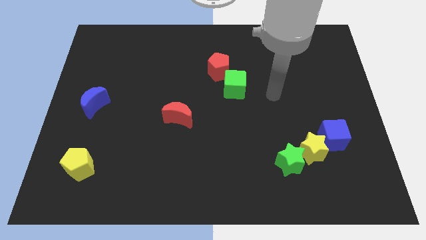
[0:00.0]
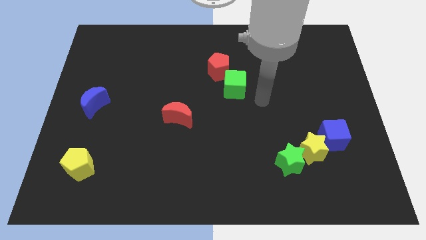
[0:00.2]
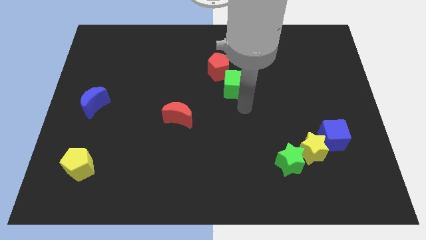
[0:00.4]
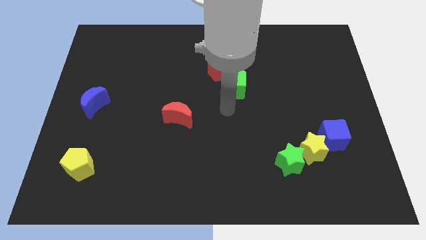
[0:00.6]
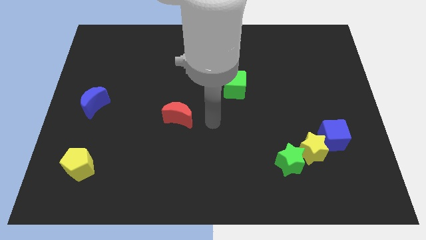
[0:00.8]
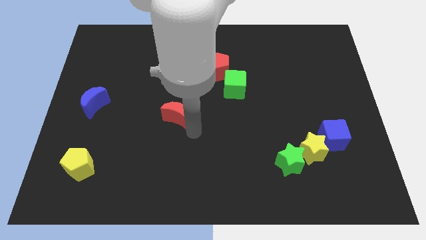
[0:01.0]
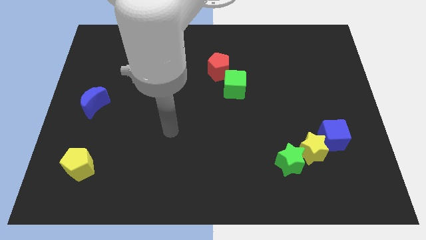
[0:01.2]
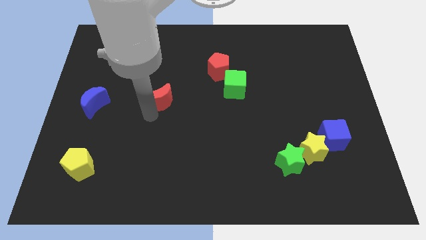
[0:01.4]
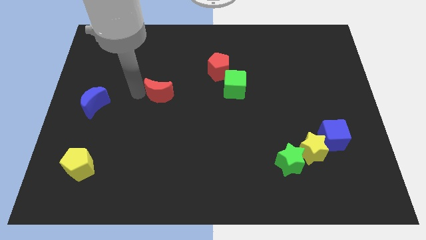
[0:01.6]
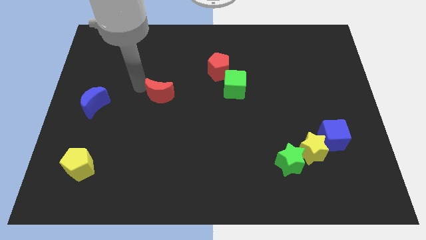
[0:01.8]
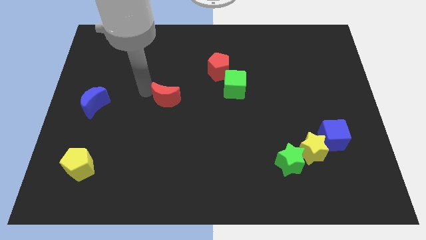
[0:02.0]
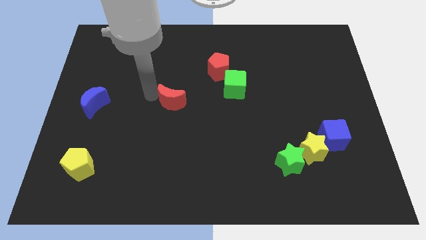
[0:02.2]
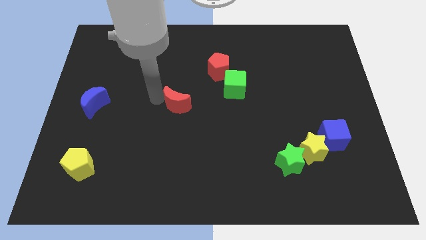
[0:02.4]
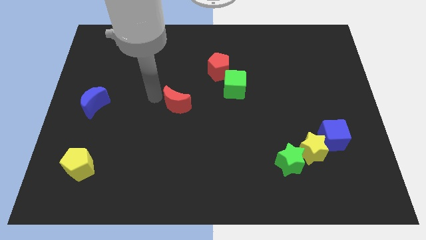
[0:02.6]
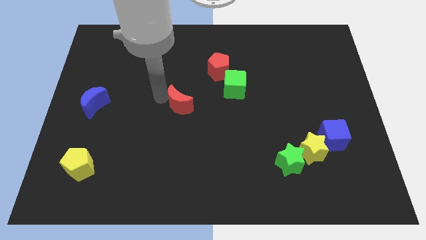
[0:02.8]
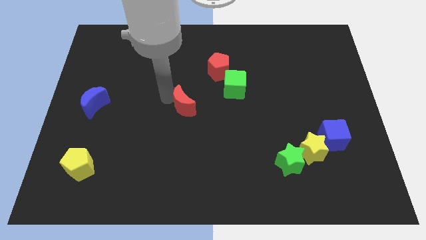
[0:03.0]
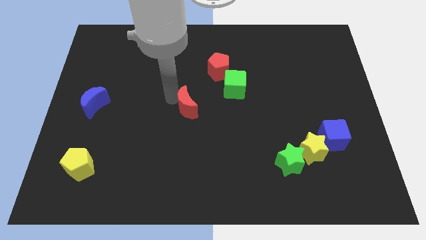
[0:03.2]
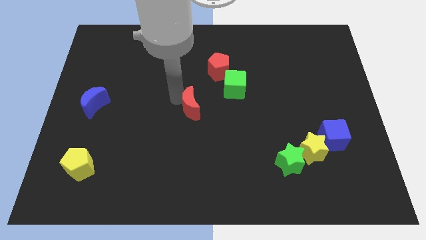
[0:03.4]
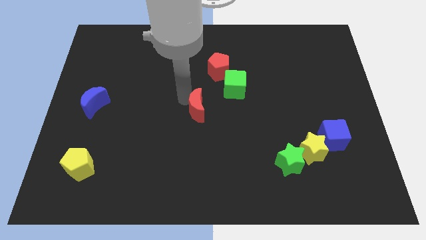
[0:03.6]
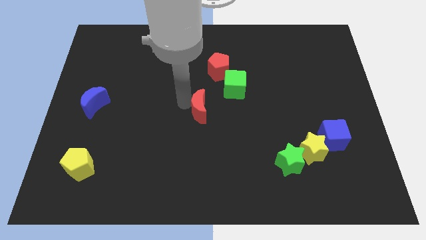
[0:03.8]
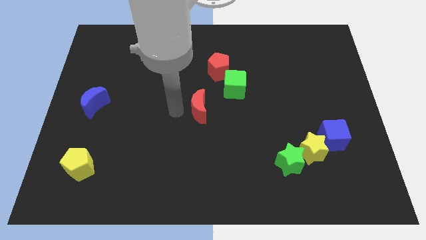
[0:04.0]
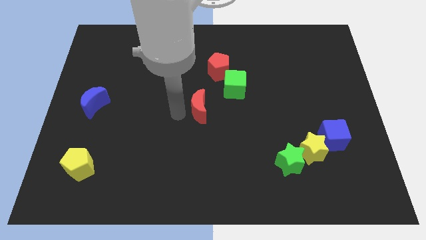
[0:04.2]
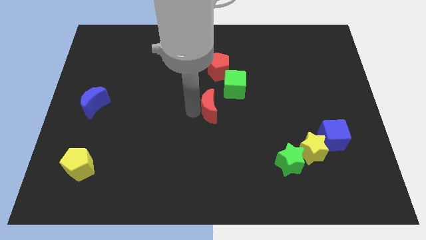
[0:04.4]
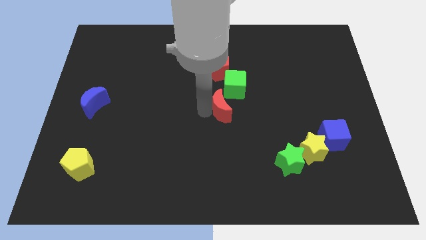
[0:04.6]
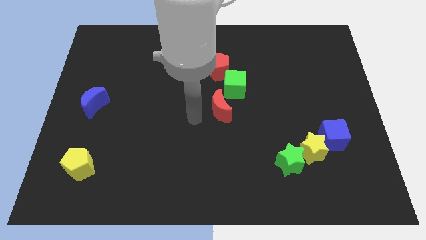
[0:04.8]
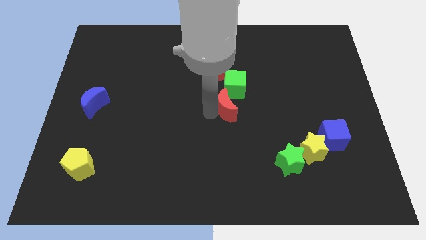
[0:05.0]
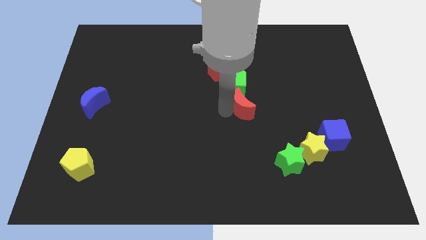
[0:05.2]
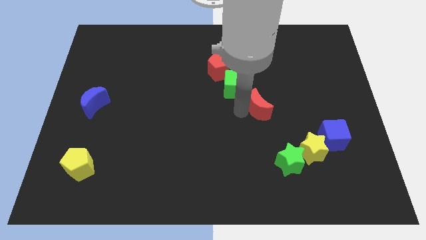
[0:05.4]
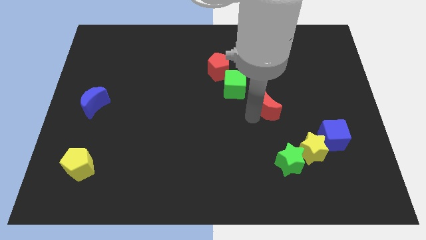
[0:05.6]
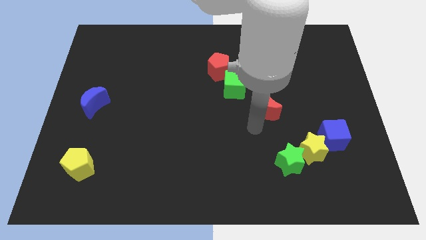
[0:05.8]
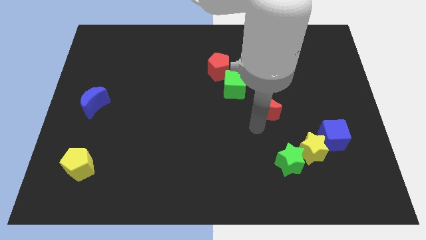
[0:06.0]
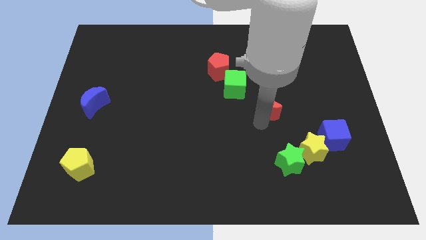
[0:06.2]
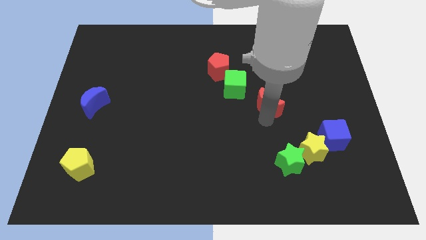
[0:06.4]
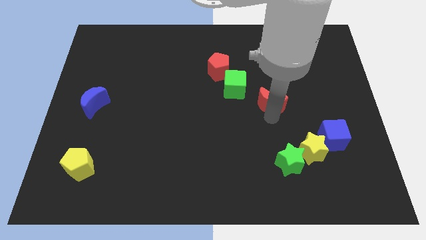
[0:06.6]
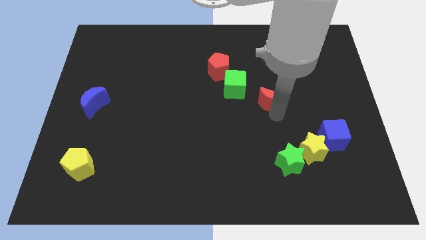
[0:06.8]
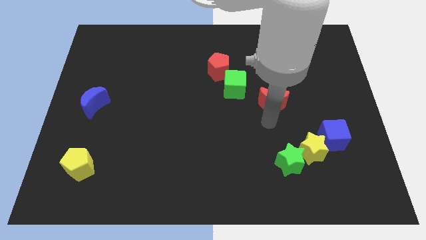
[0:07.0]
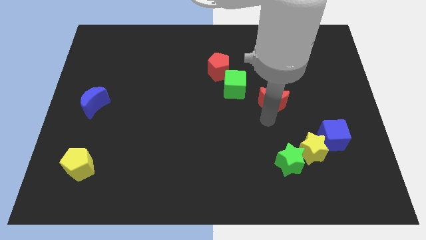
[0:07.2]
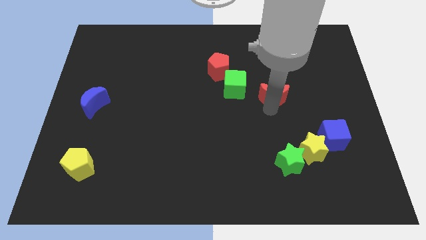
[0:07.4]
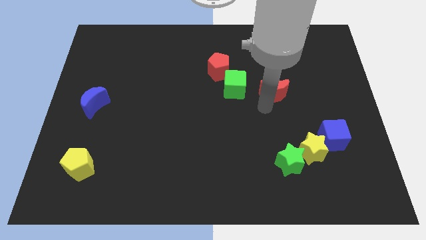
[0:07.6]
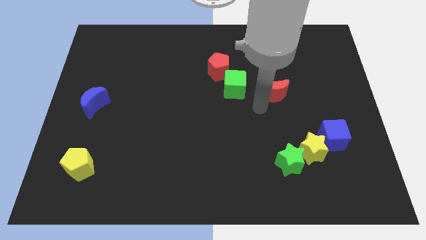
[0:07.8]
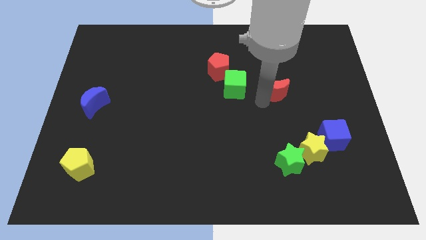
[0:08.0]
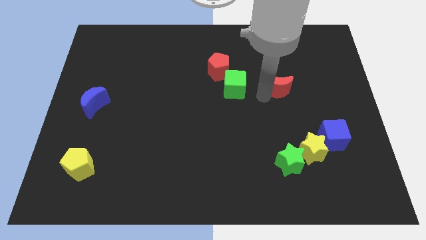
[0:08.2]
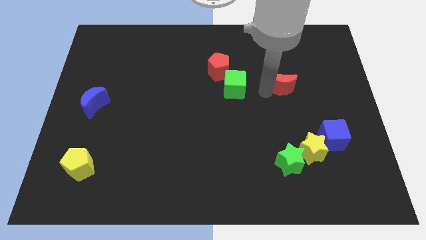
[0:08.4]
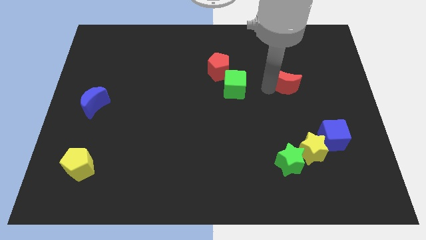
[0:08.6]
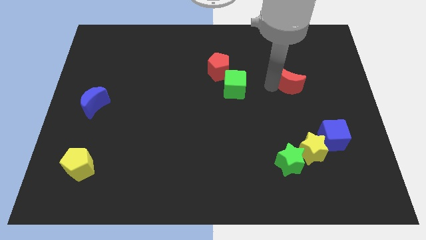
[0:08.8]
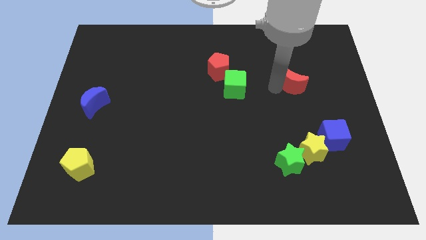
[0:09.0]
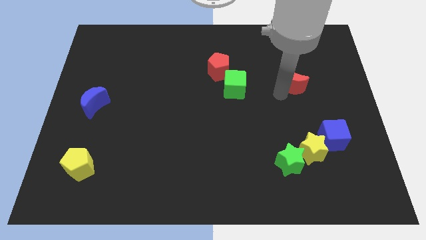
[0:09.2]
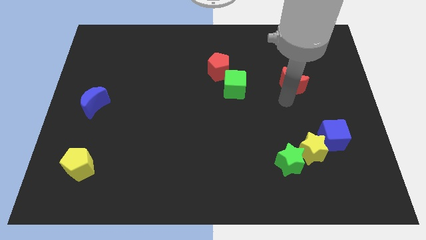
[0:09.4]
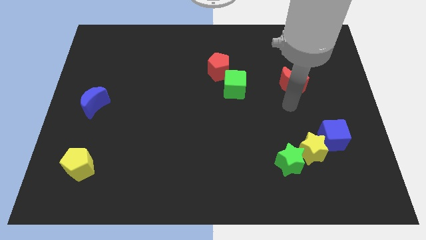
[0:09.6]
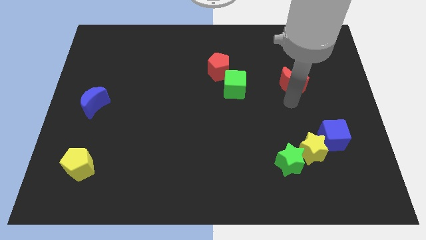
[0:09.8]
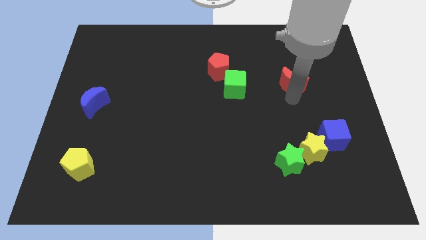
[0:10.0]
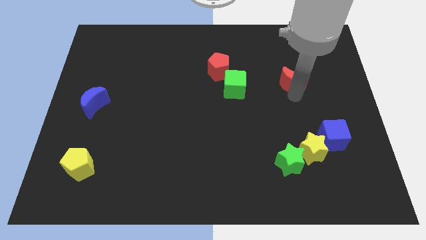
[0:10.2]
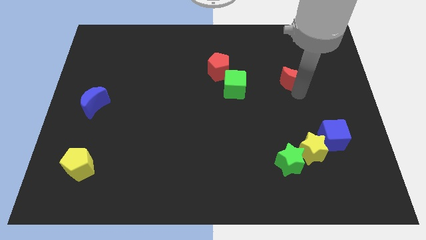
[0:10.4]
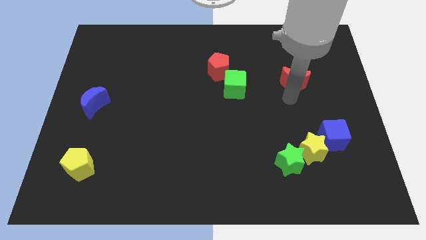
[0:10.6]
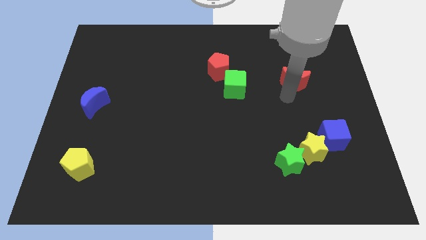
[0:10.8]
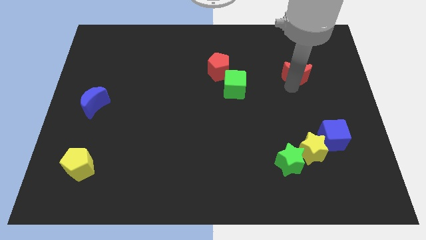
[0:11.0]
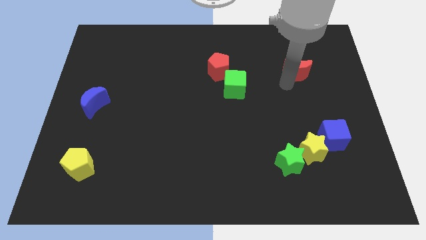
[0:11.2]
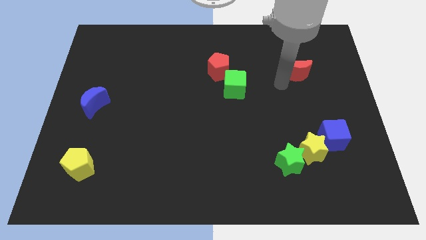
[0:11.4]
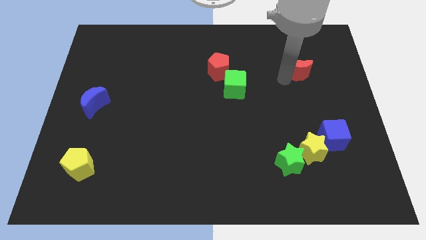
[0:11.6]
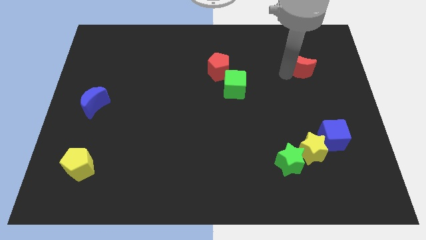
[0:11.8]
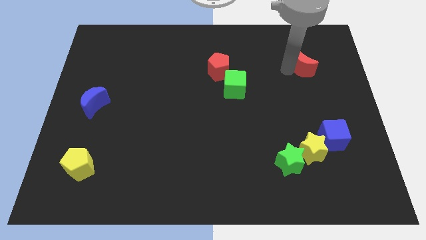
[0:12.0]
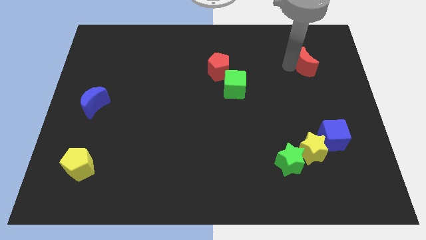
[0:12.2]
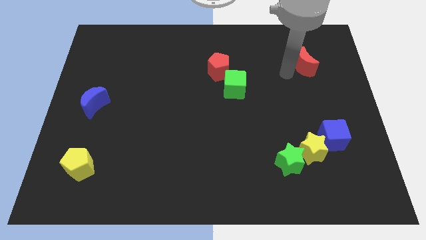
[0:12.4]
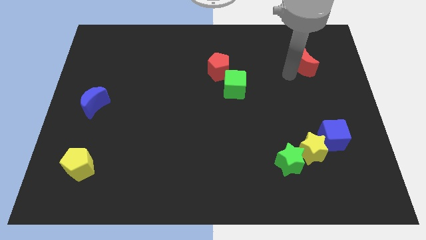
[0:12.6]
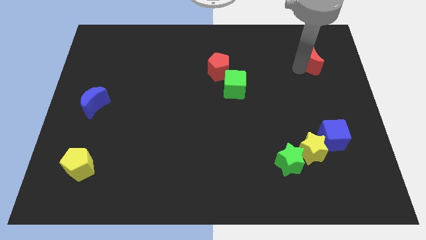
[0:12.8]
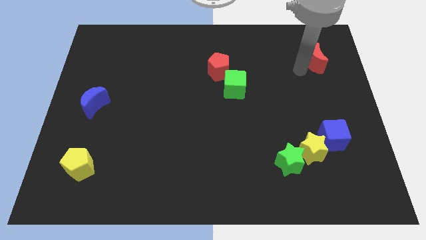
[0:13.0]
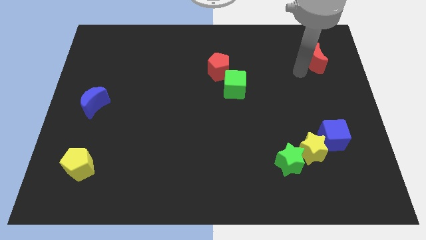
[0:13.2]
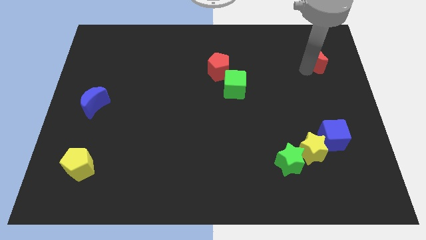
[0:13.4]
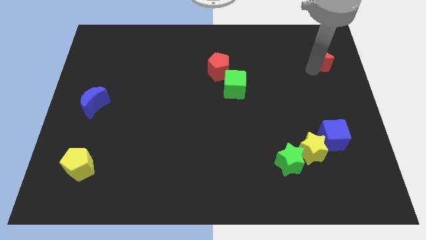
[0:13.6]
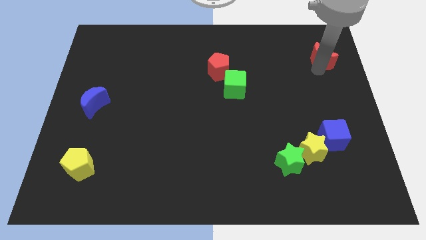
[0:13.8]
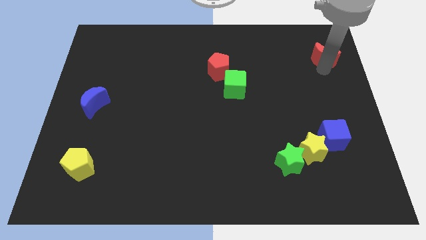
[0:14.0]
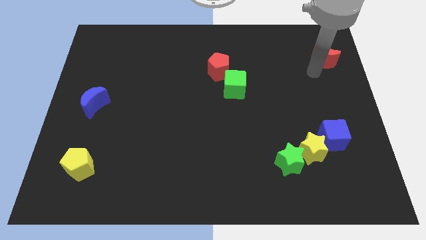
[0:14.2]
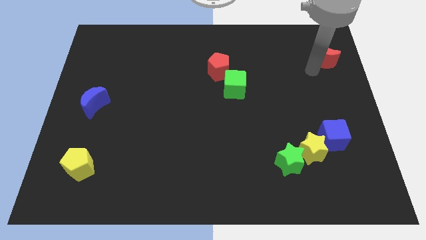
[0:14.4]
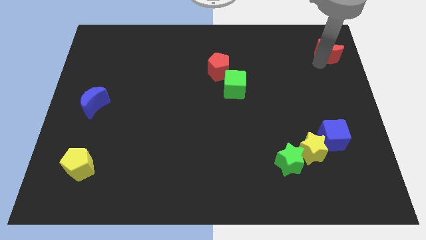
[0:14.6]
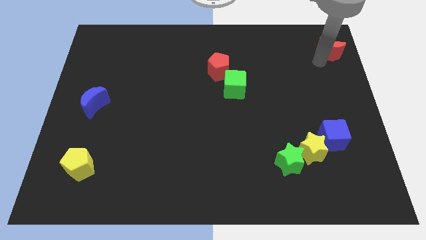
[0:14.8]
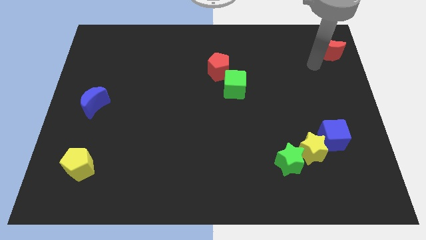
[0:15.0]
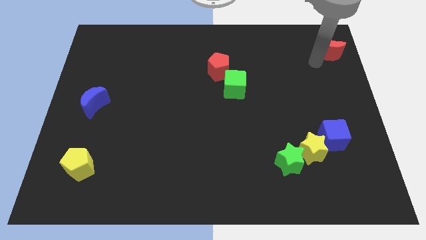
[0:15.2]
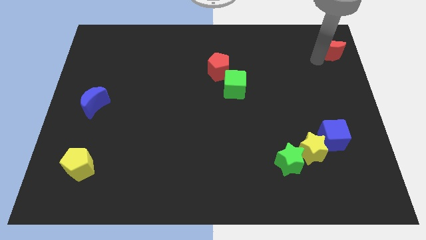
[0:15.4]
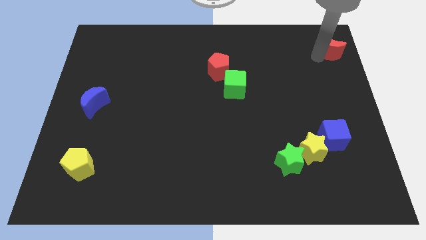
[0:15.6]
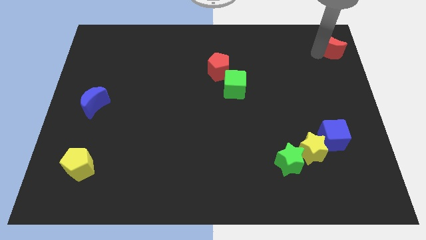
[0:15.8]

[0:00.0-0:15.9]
put the red moon to the top right of the board
